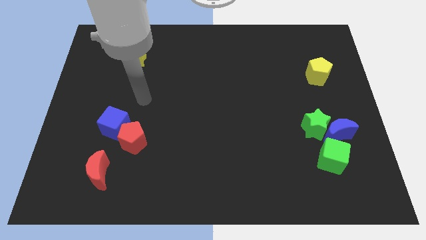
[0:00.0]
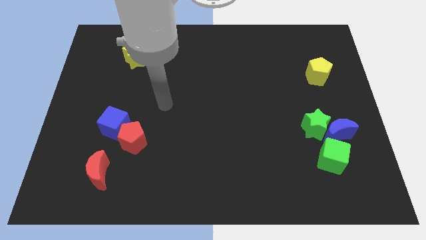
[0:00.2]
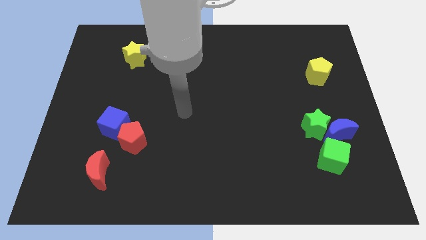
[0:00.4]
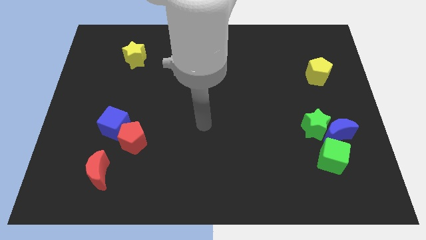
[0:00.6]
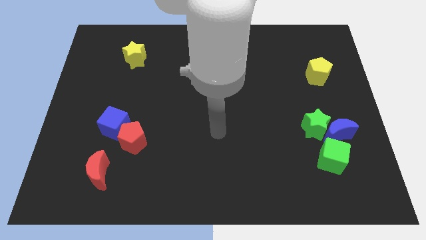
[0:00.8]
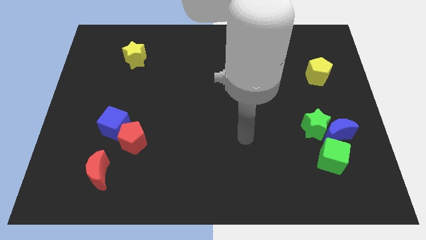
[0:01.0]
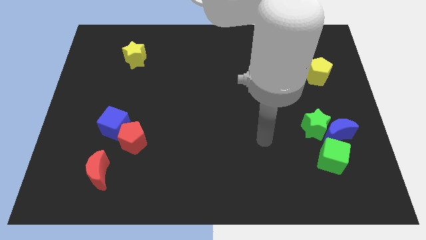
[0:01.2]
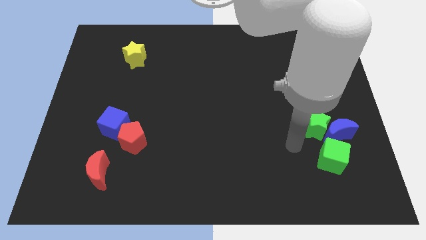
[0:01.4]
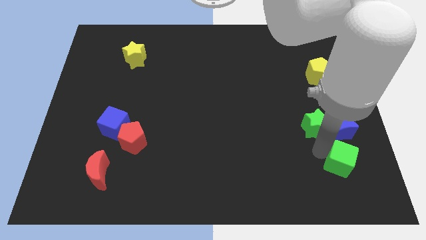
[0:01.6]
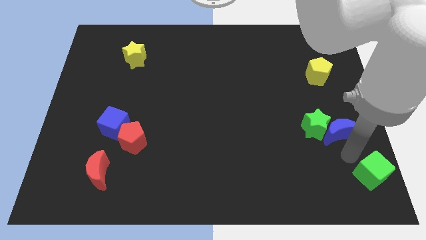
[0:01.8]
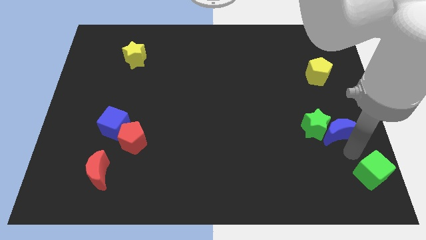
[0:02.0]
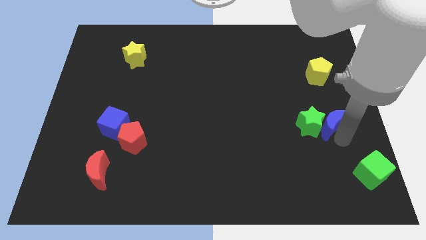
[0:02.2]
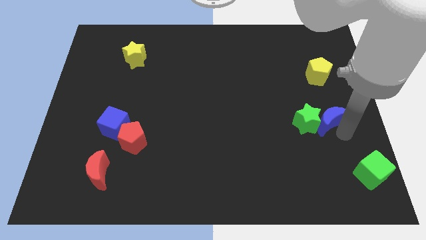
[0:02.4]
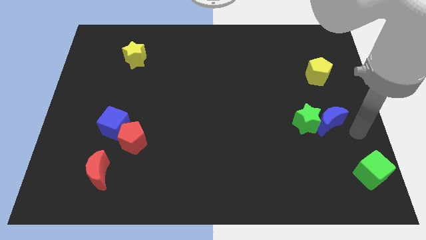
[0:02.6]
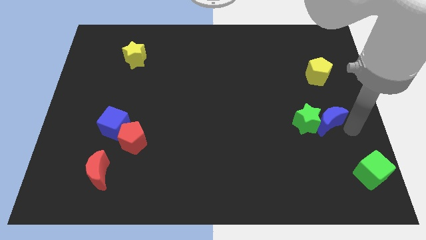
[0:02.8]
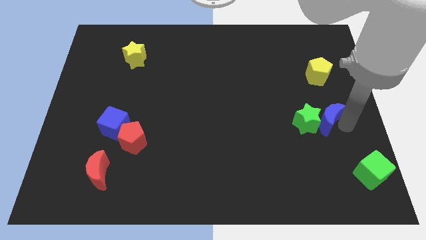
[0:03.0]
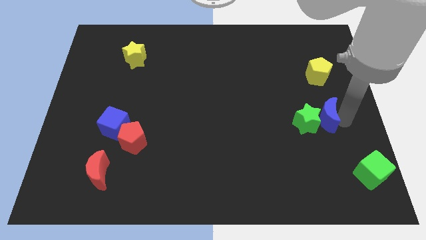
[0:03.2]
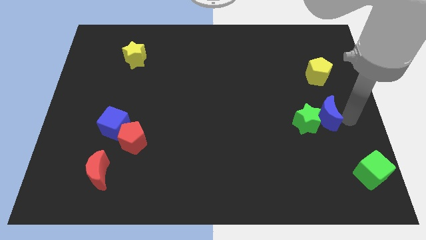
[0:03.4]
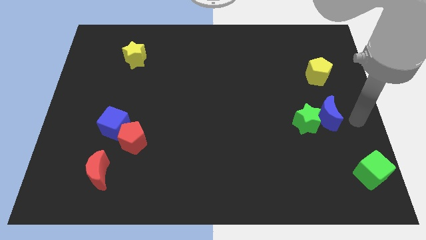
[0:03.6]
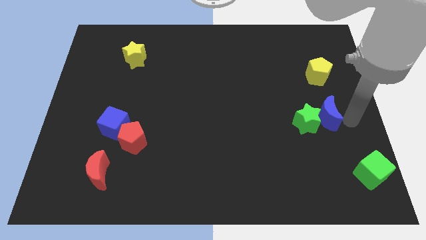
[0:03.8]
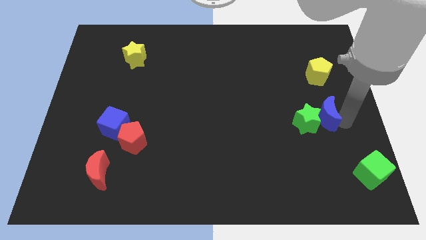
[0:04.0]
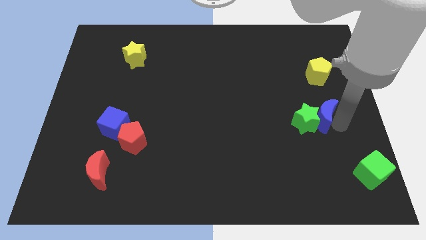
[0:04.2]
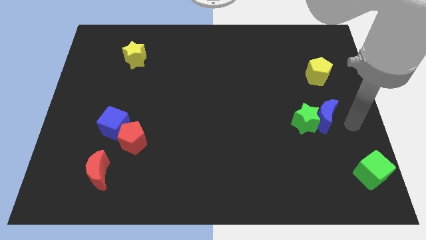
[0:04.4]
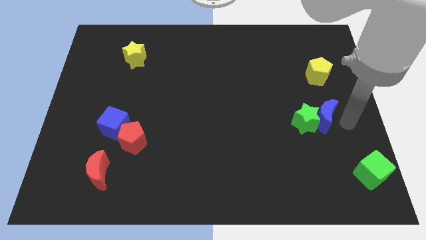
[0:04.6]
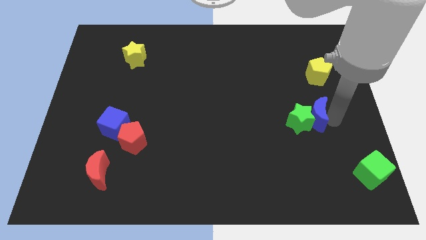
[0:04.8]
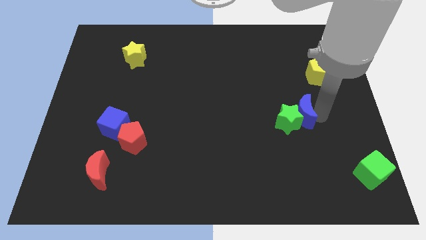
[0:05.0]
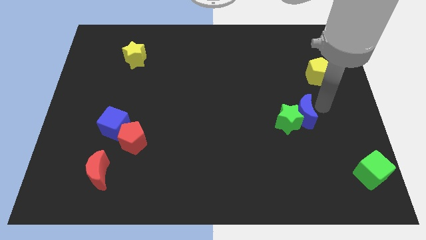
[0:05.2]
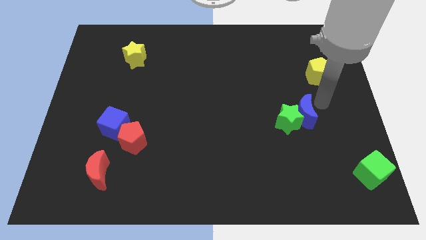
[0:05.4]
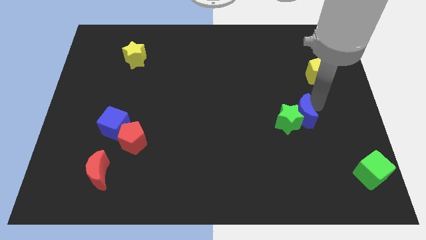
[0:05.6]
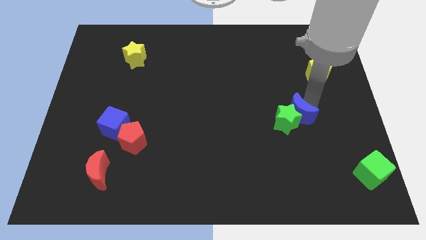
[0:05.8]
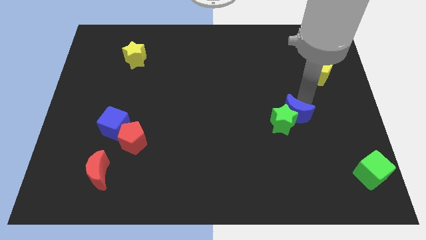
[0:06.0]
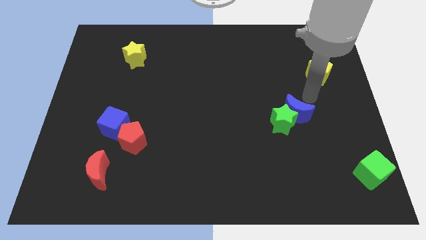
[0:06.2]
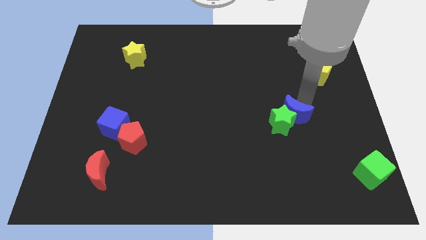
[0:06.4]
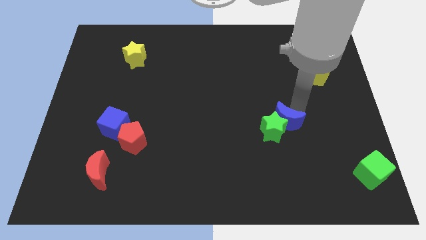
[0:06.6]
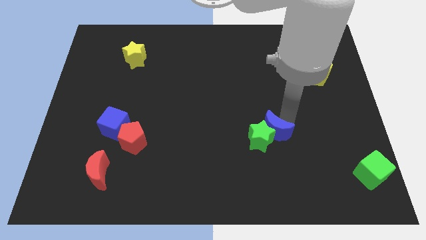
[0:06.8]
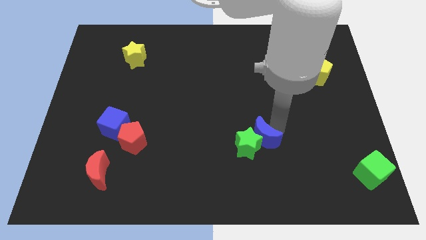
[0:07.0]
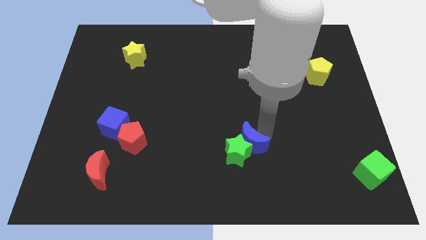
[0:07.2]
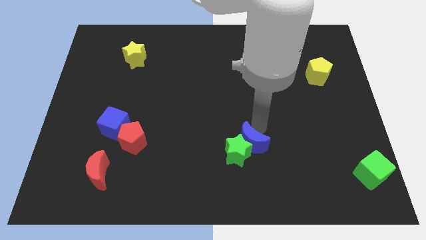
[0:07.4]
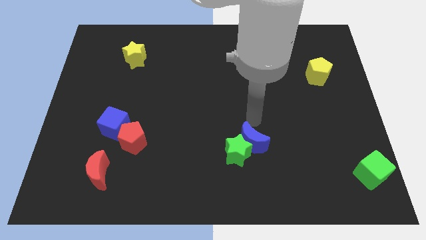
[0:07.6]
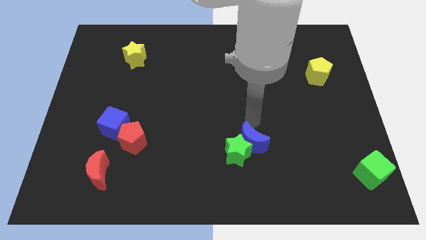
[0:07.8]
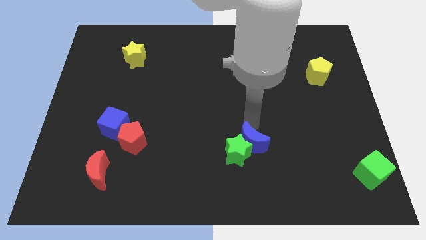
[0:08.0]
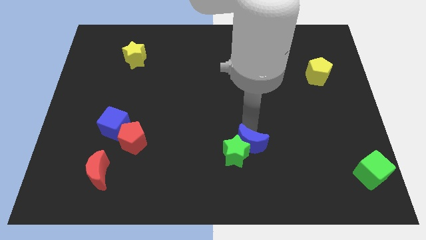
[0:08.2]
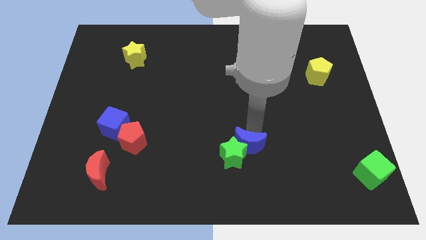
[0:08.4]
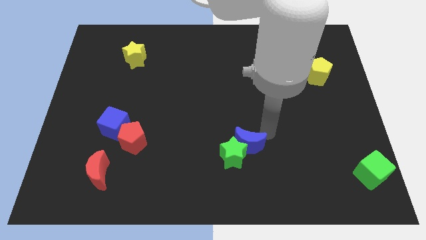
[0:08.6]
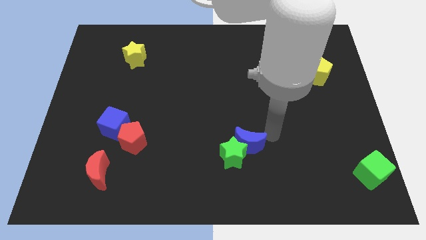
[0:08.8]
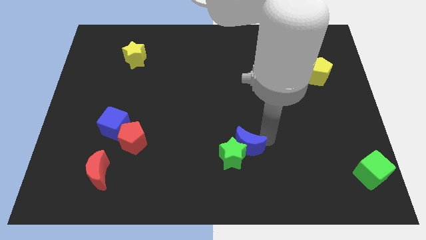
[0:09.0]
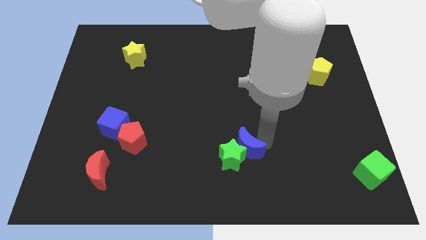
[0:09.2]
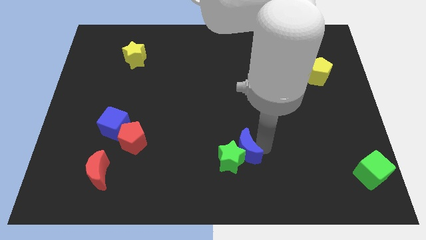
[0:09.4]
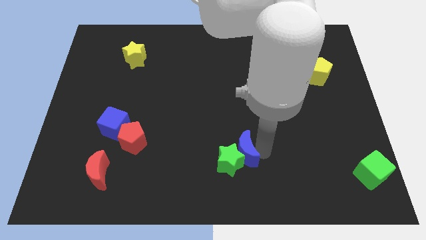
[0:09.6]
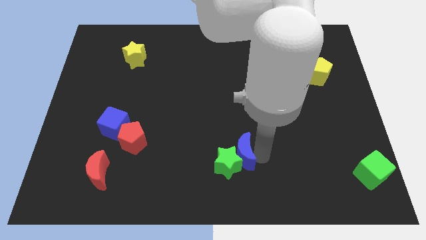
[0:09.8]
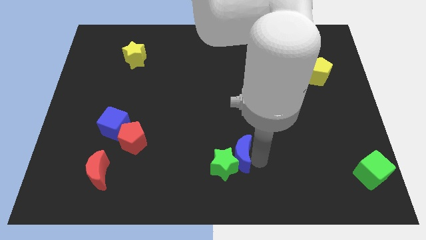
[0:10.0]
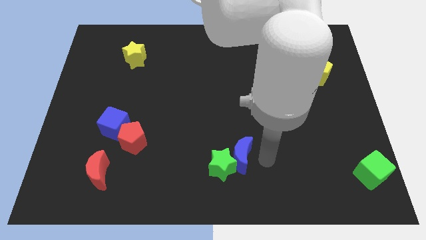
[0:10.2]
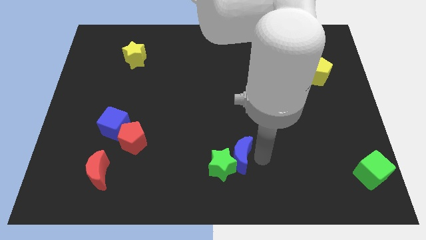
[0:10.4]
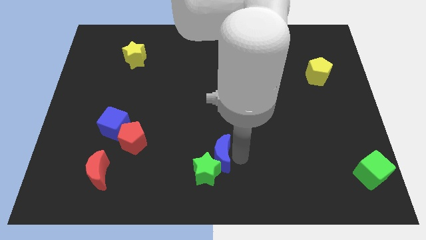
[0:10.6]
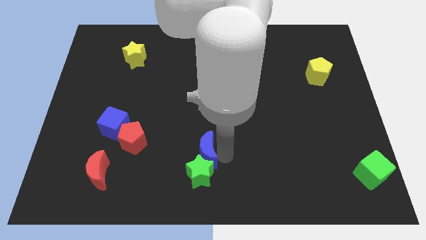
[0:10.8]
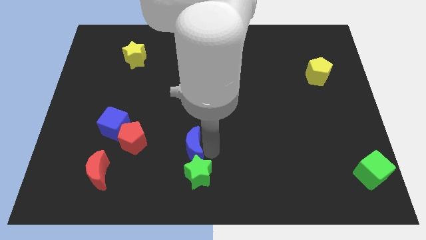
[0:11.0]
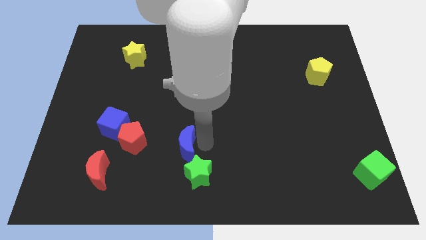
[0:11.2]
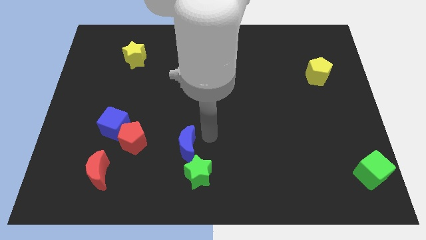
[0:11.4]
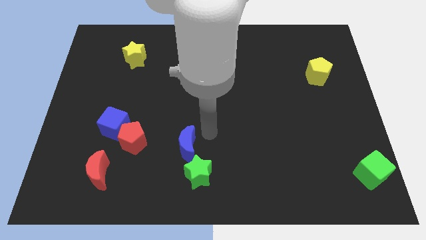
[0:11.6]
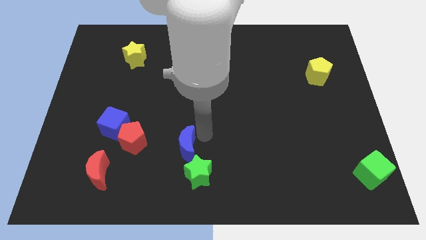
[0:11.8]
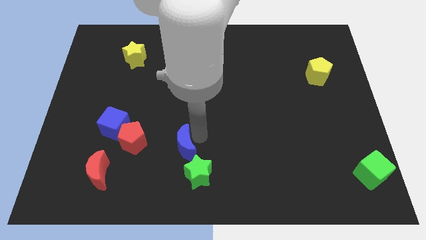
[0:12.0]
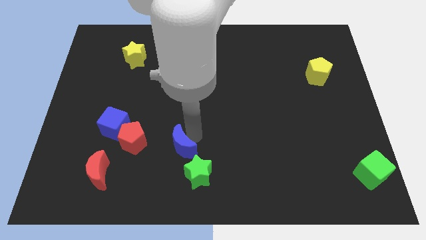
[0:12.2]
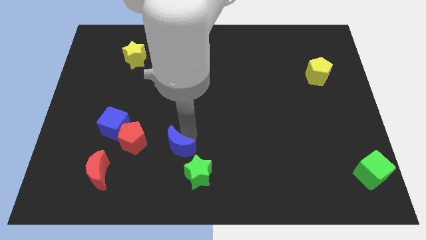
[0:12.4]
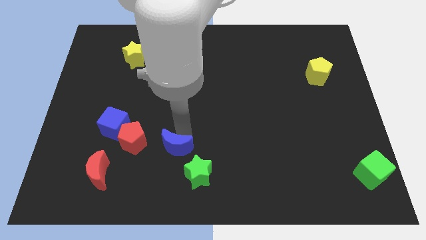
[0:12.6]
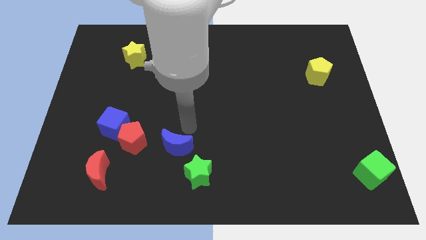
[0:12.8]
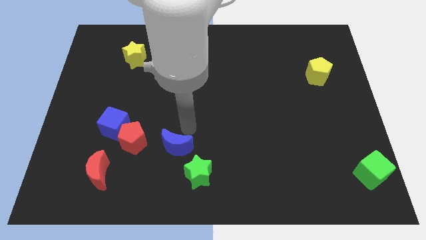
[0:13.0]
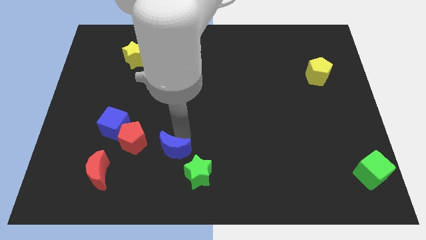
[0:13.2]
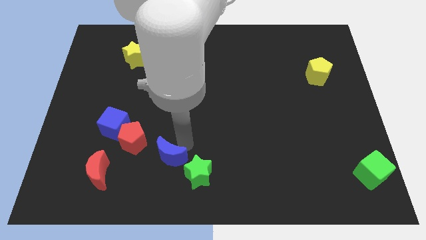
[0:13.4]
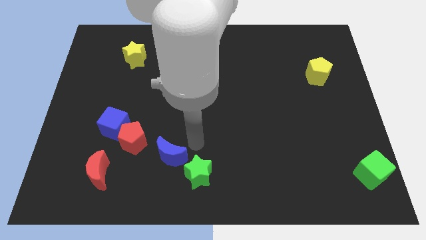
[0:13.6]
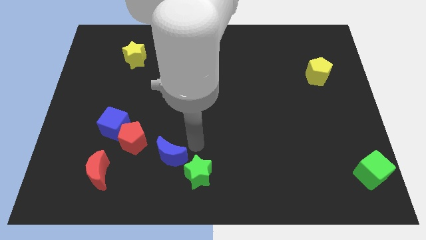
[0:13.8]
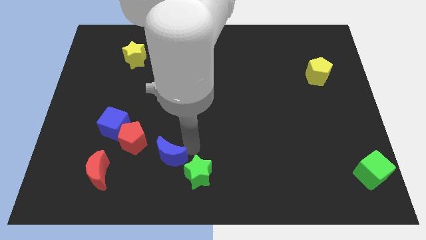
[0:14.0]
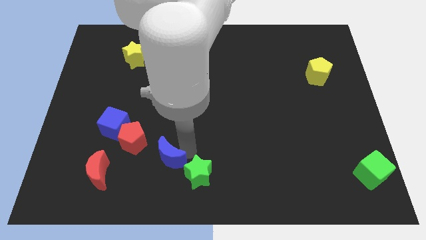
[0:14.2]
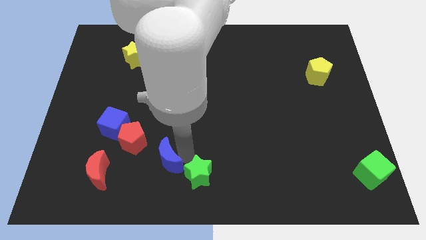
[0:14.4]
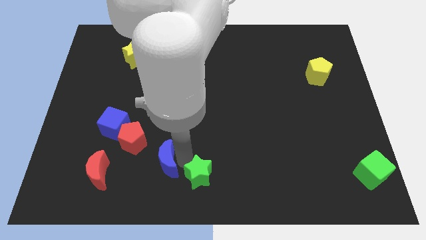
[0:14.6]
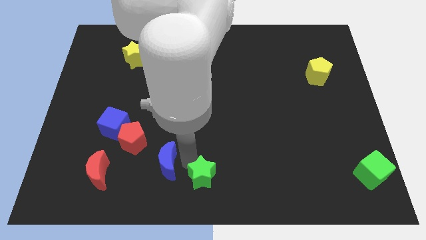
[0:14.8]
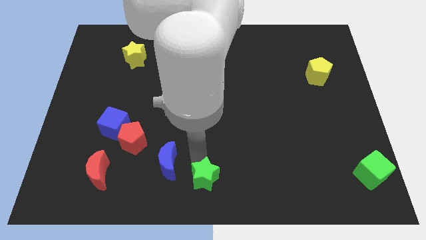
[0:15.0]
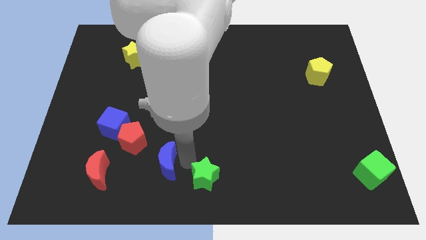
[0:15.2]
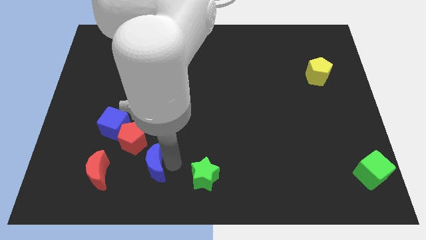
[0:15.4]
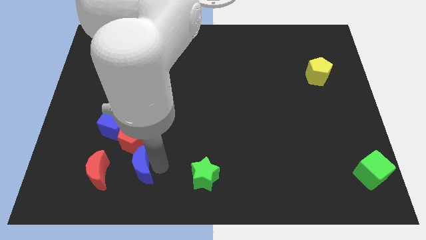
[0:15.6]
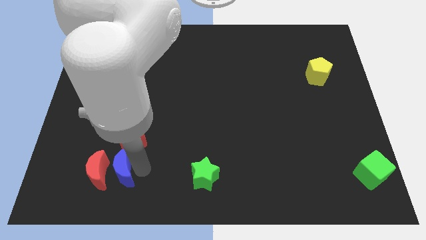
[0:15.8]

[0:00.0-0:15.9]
push the blue moon next to the red moon
